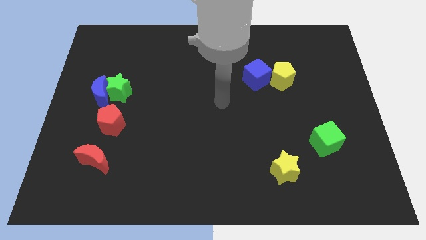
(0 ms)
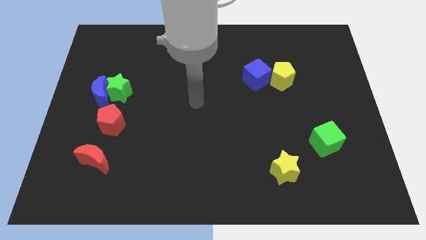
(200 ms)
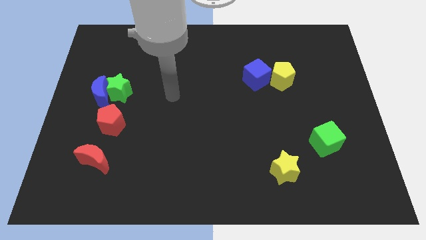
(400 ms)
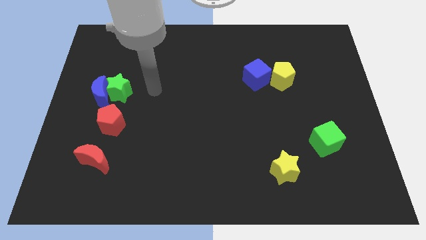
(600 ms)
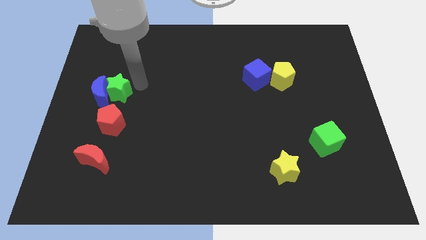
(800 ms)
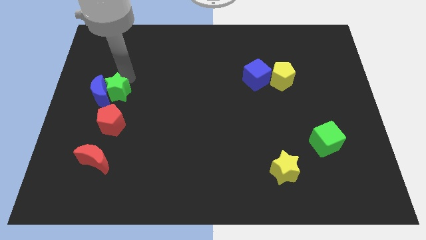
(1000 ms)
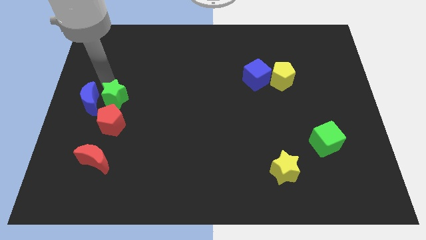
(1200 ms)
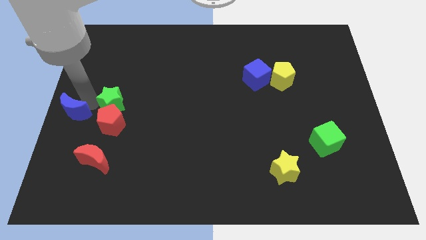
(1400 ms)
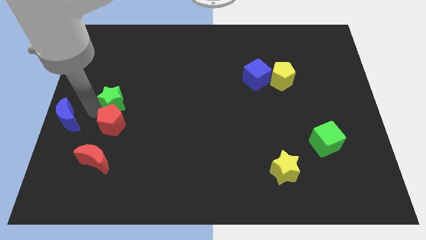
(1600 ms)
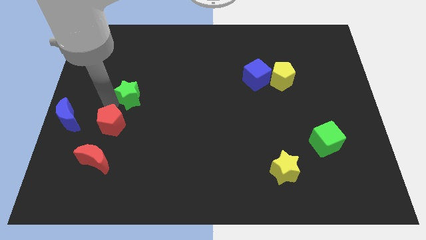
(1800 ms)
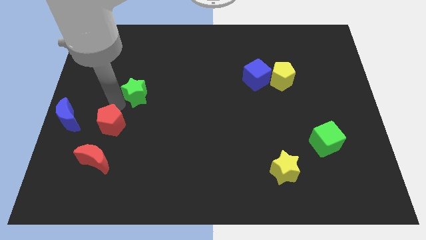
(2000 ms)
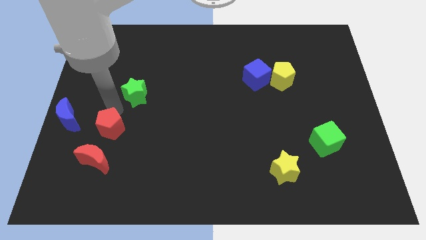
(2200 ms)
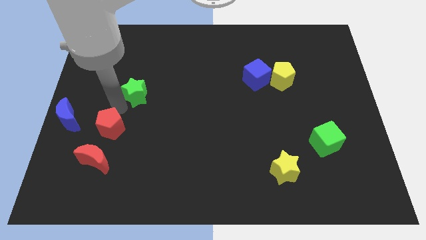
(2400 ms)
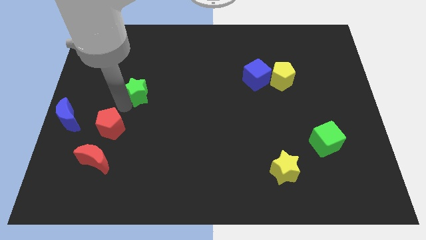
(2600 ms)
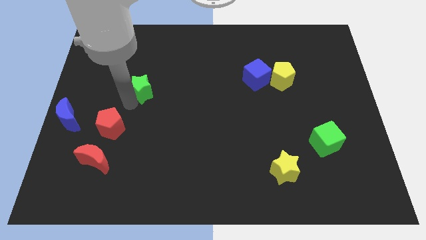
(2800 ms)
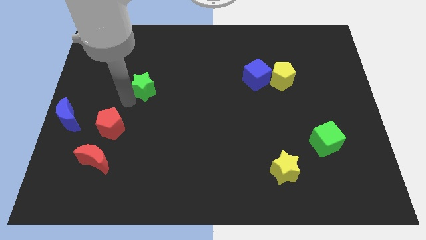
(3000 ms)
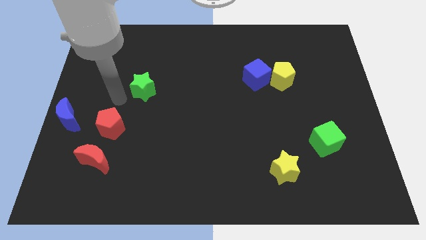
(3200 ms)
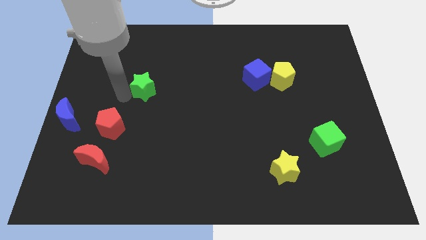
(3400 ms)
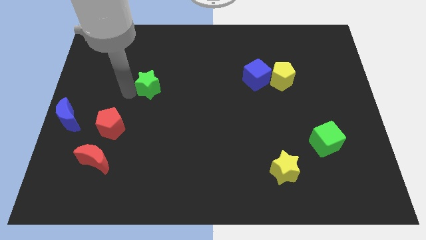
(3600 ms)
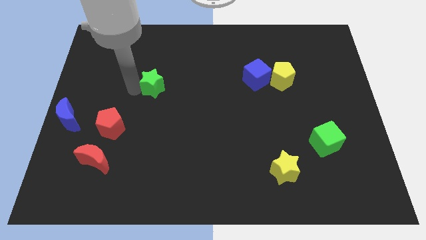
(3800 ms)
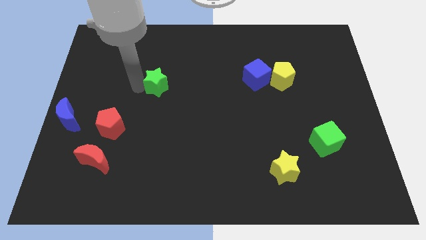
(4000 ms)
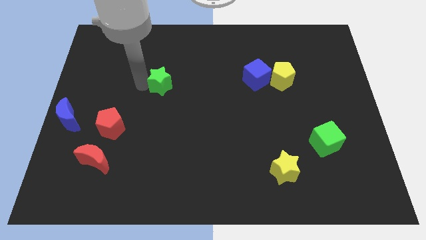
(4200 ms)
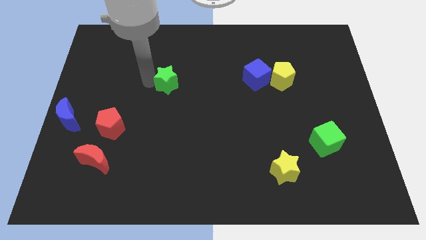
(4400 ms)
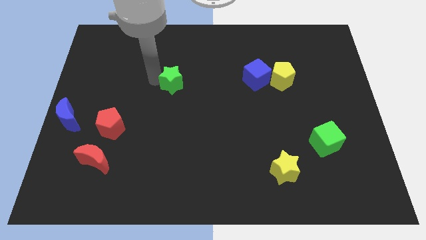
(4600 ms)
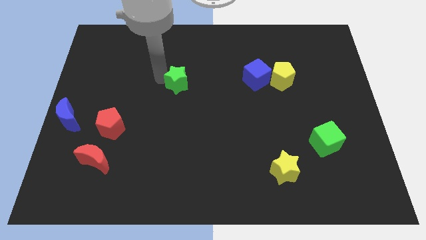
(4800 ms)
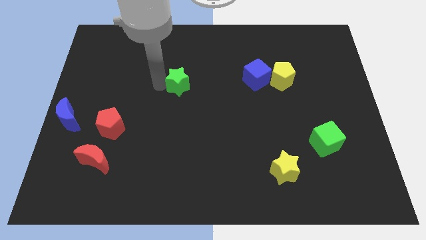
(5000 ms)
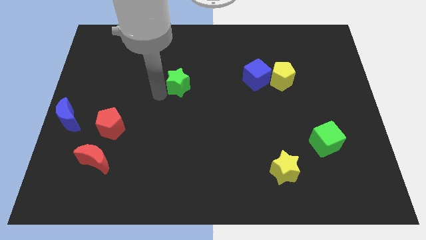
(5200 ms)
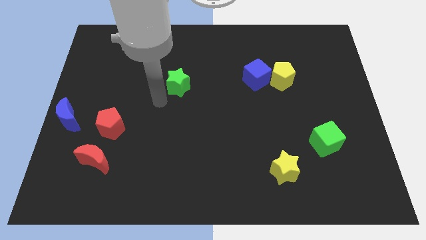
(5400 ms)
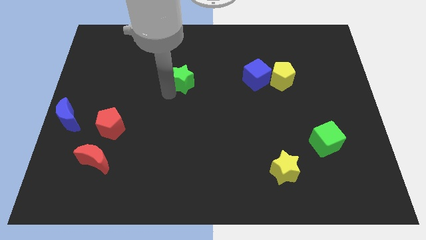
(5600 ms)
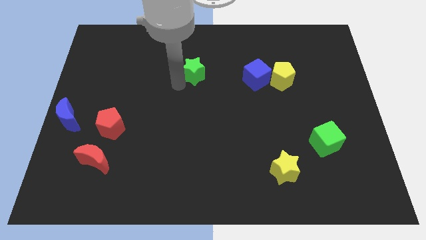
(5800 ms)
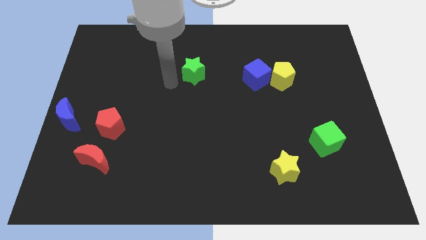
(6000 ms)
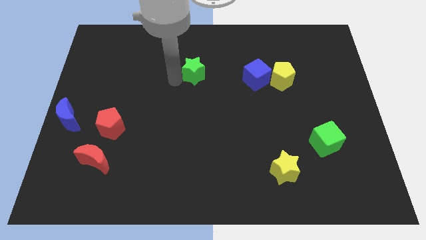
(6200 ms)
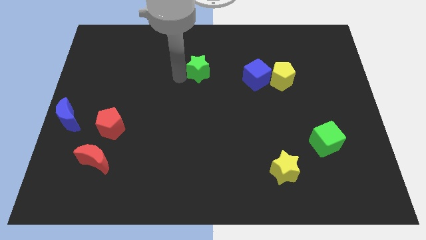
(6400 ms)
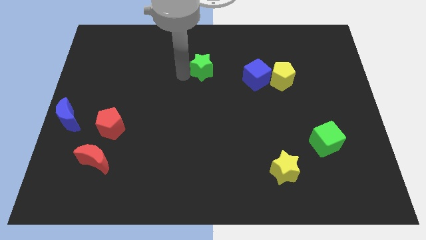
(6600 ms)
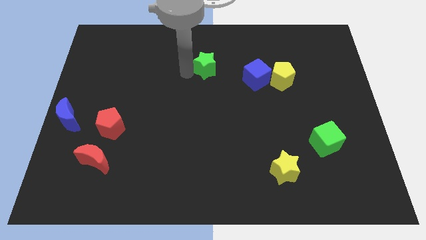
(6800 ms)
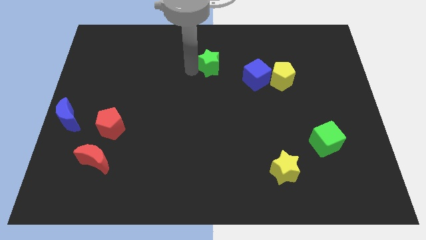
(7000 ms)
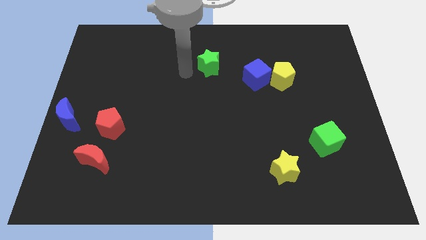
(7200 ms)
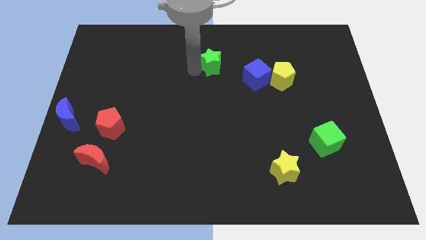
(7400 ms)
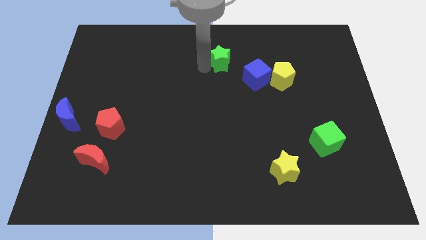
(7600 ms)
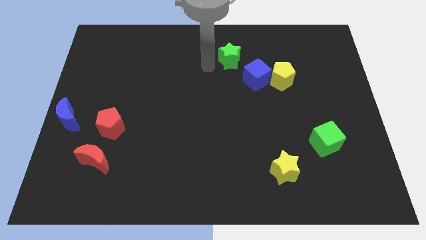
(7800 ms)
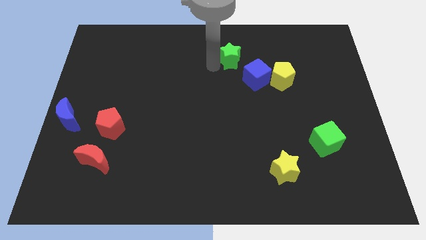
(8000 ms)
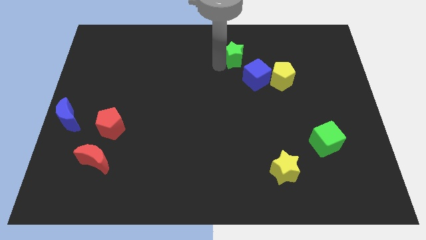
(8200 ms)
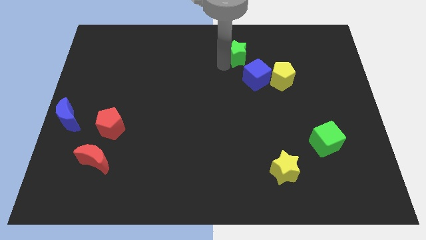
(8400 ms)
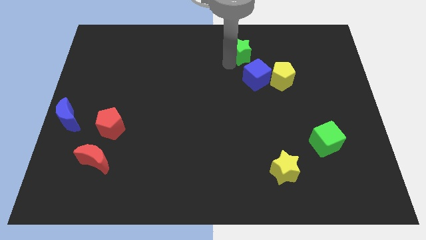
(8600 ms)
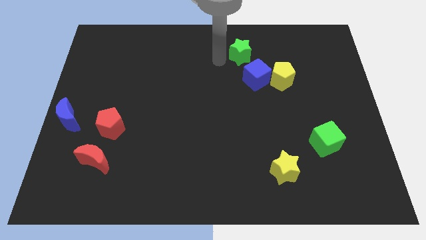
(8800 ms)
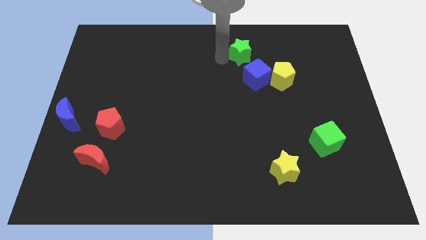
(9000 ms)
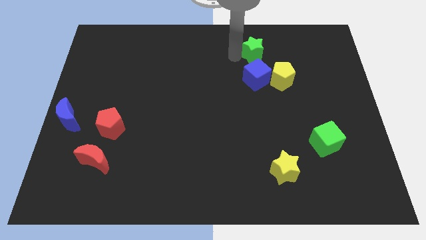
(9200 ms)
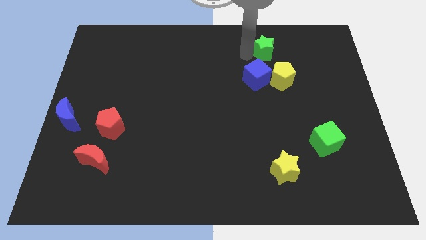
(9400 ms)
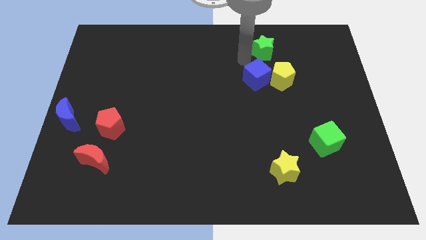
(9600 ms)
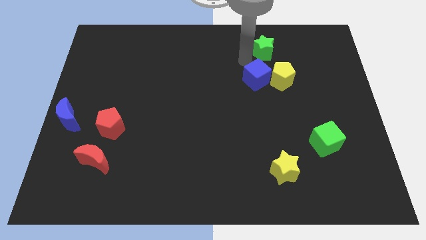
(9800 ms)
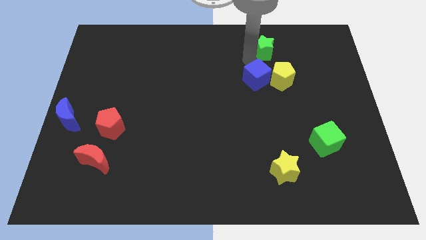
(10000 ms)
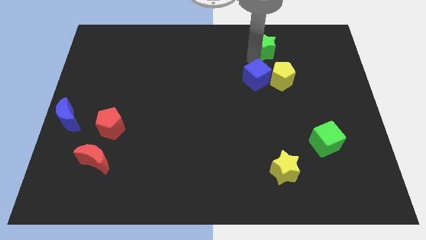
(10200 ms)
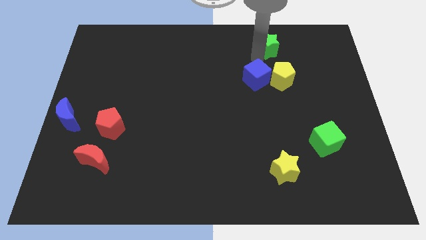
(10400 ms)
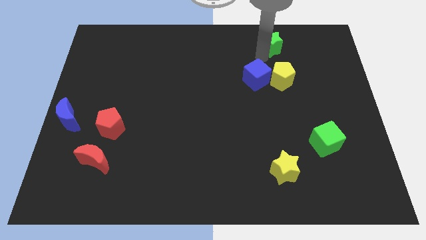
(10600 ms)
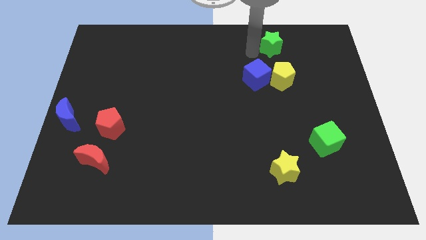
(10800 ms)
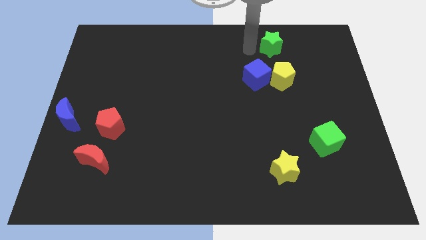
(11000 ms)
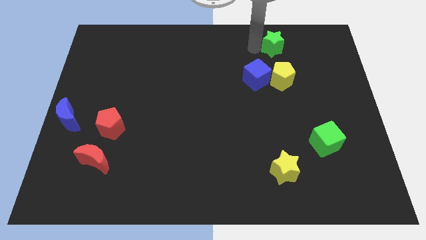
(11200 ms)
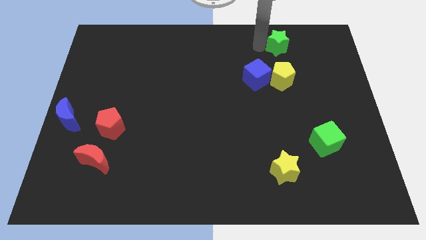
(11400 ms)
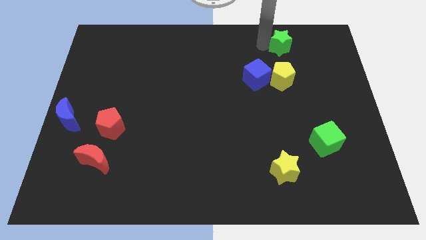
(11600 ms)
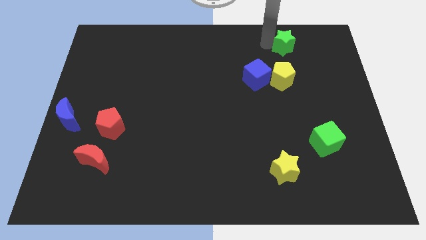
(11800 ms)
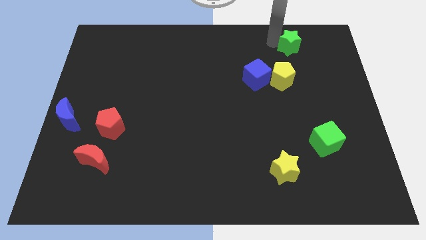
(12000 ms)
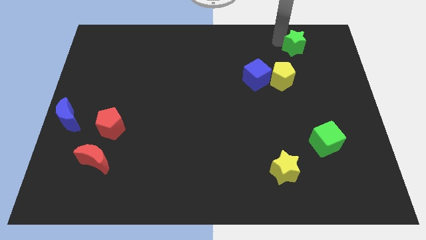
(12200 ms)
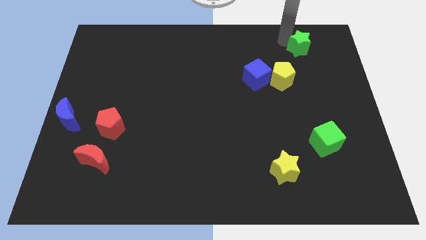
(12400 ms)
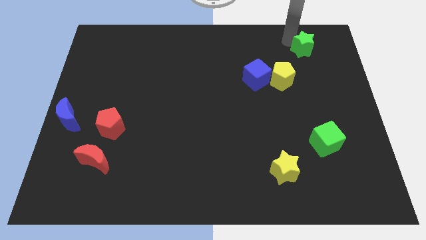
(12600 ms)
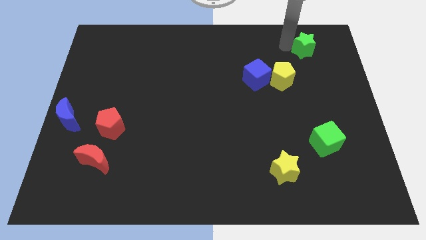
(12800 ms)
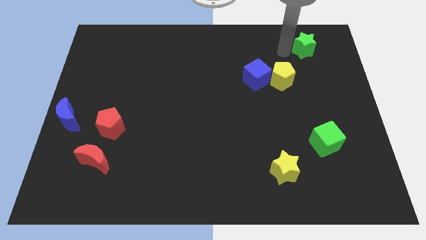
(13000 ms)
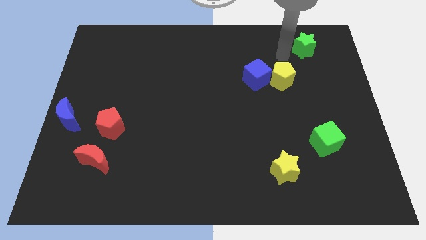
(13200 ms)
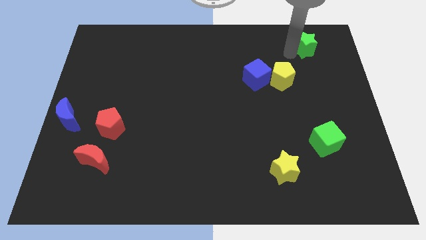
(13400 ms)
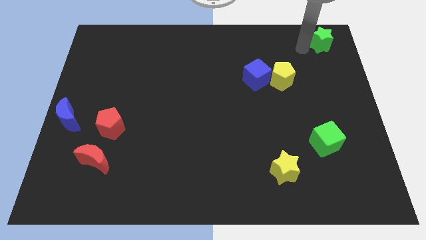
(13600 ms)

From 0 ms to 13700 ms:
push the green star to the top right of the board
